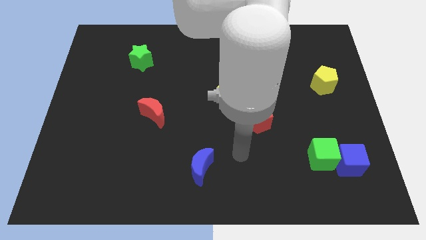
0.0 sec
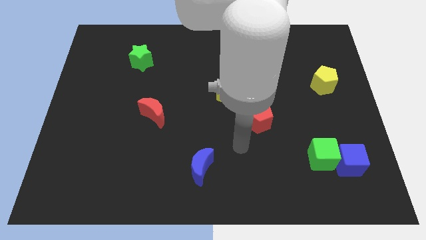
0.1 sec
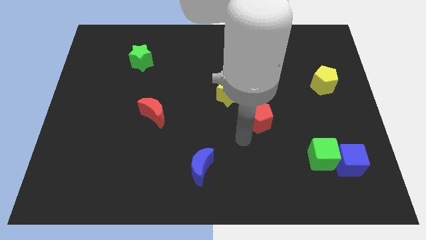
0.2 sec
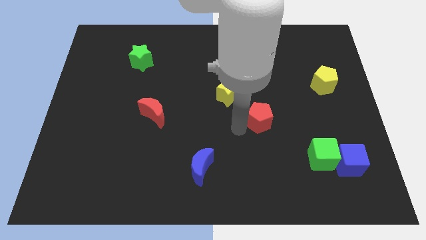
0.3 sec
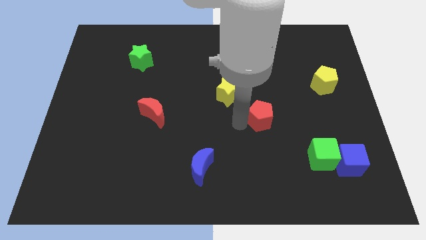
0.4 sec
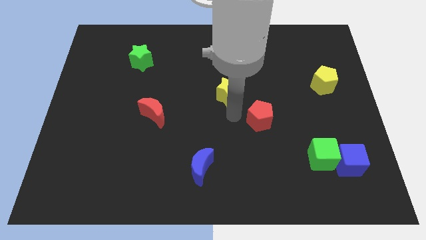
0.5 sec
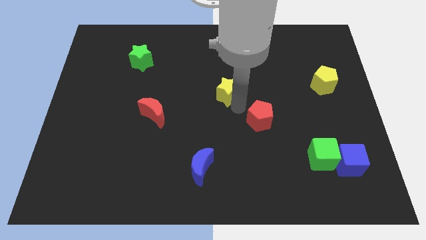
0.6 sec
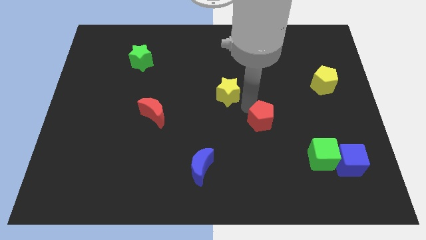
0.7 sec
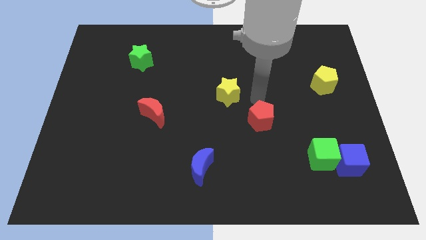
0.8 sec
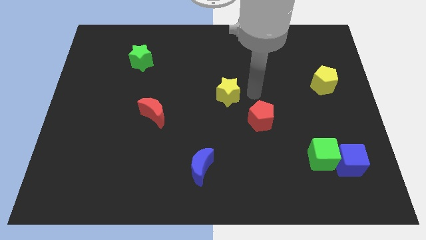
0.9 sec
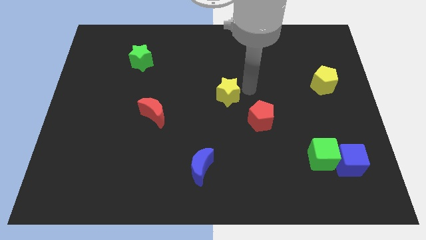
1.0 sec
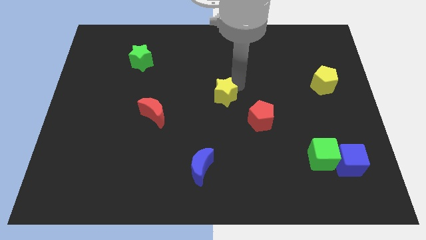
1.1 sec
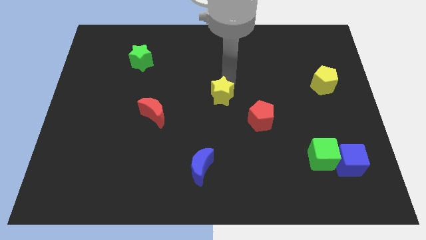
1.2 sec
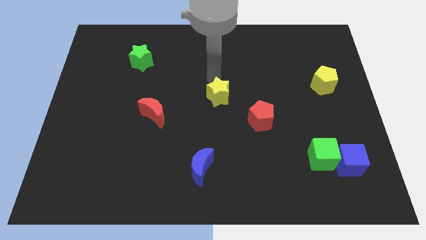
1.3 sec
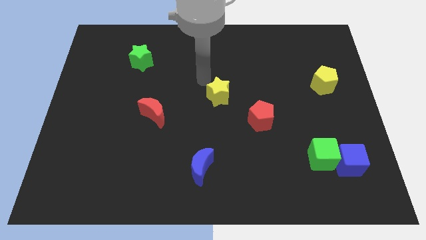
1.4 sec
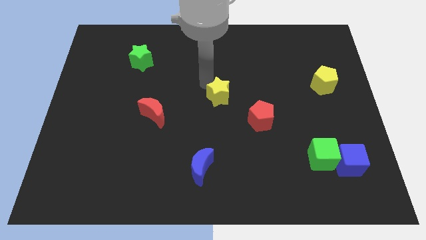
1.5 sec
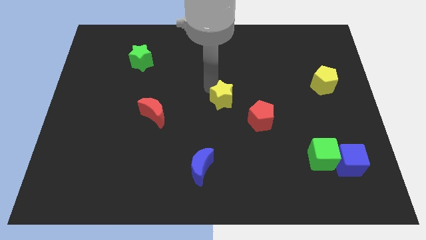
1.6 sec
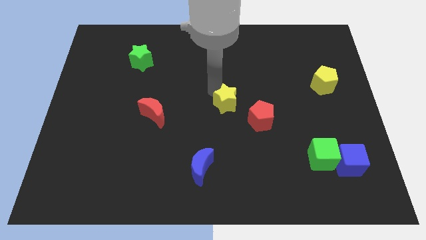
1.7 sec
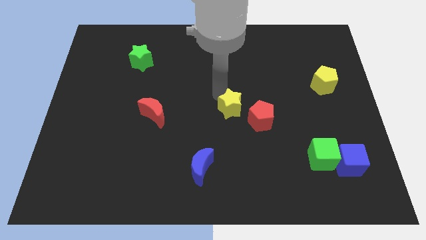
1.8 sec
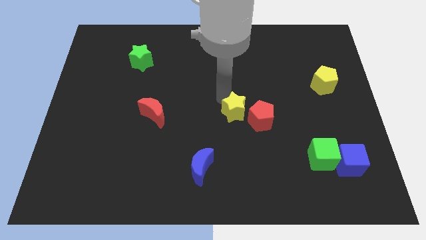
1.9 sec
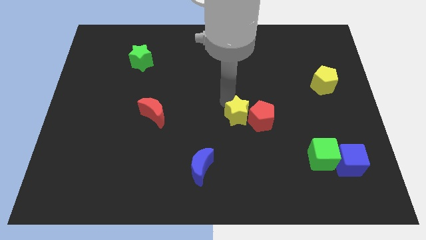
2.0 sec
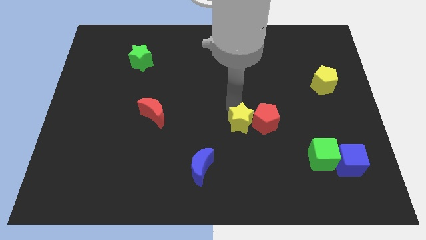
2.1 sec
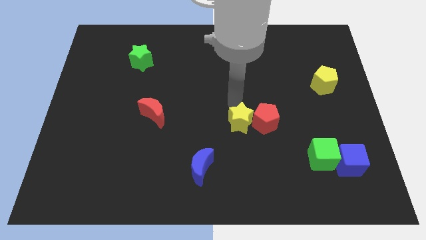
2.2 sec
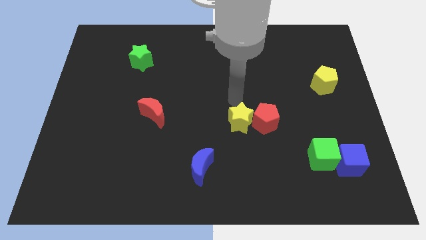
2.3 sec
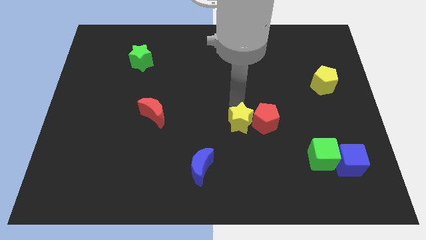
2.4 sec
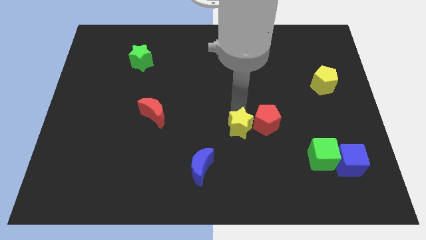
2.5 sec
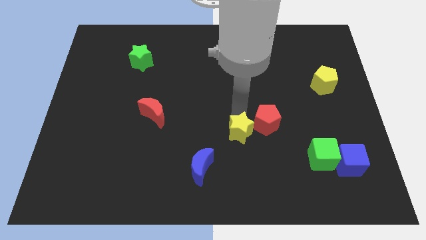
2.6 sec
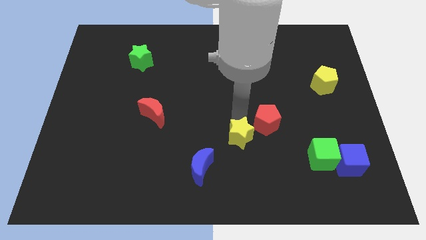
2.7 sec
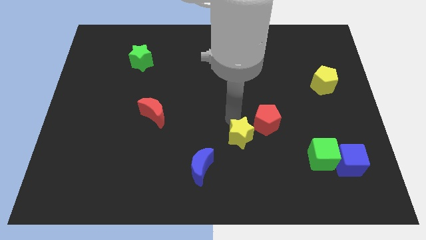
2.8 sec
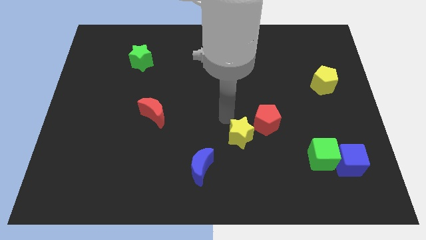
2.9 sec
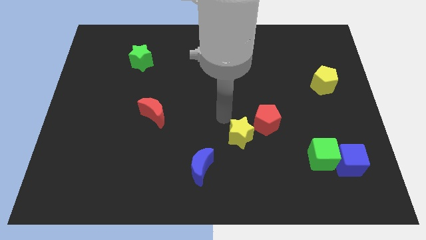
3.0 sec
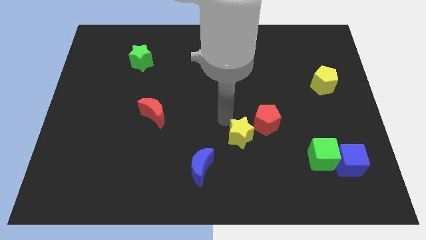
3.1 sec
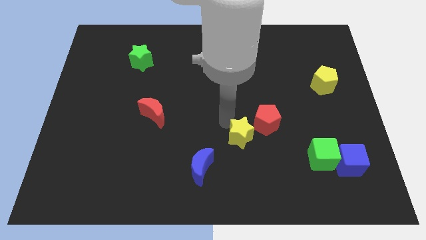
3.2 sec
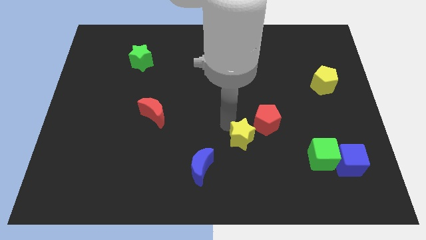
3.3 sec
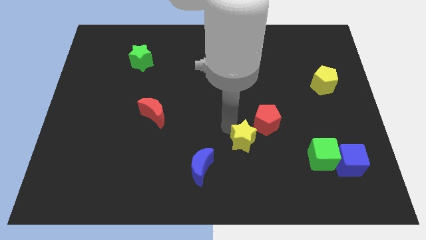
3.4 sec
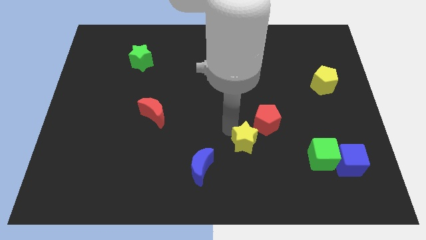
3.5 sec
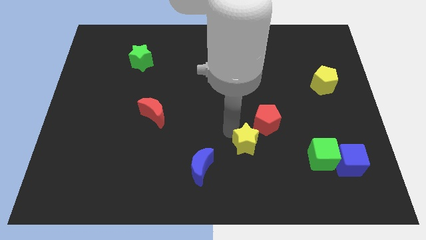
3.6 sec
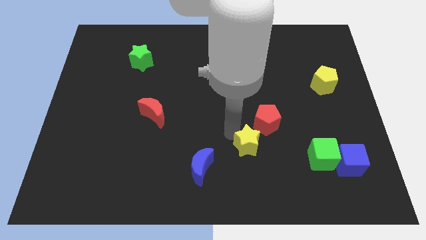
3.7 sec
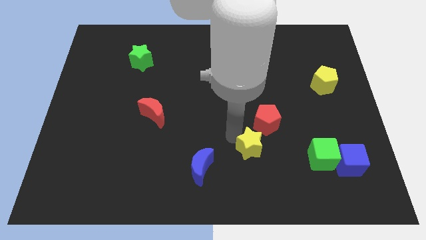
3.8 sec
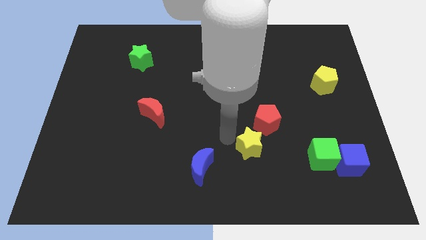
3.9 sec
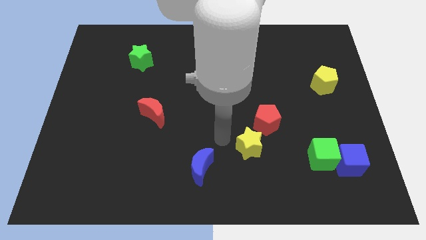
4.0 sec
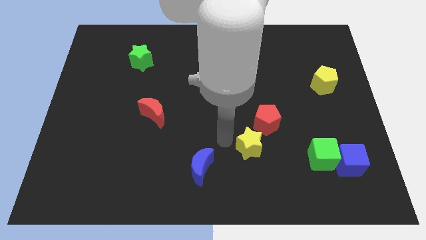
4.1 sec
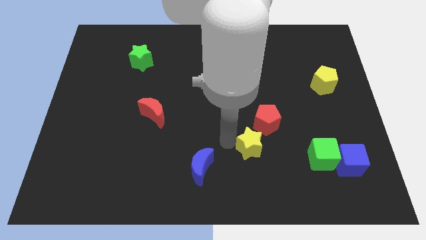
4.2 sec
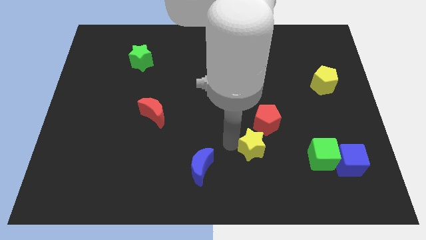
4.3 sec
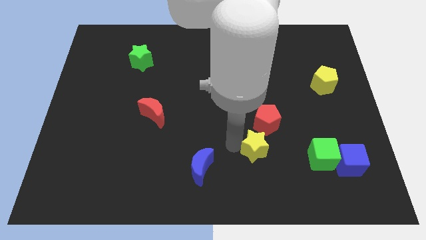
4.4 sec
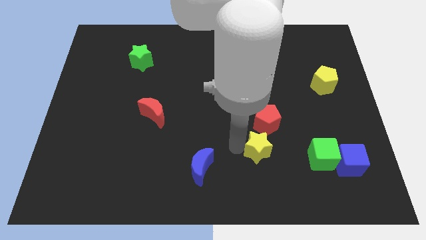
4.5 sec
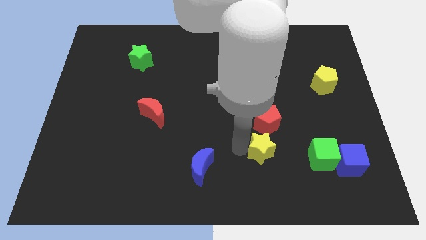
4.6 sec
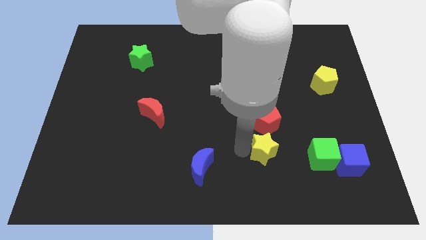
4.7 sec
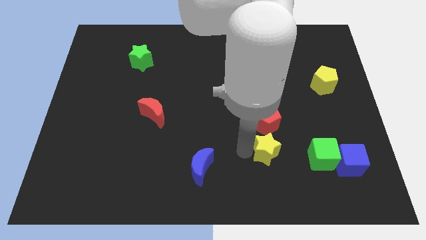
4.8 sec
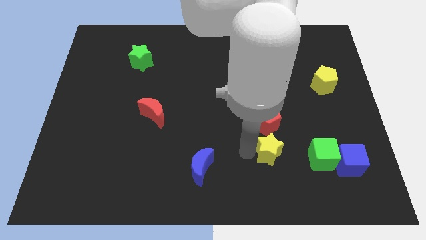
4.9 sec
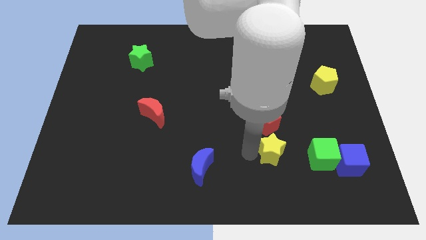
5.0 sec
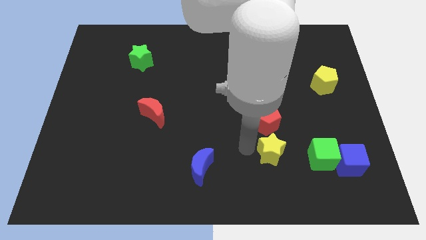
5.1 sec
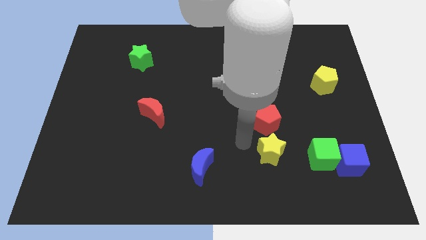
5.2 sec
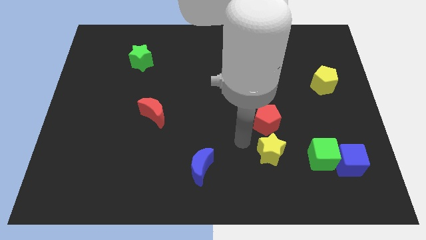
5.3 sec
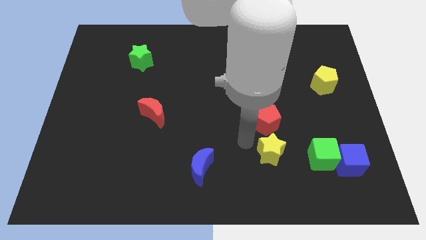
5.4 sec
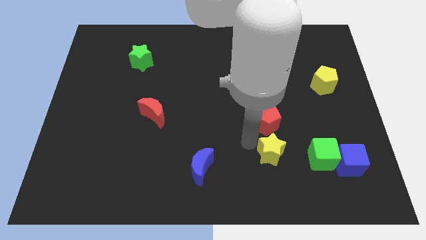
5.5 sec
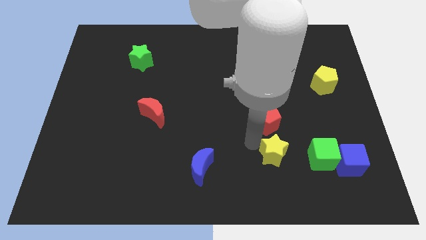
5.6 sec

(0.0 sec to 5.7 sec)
push the yellow star to the left of the blue cube

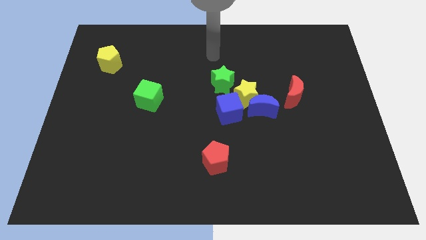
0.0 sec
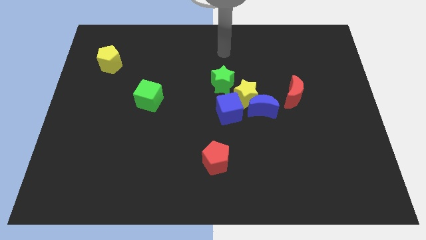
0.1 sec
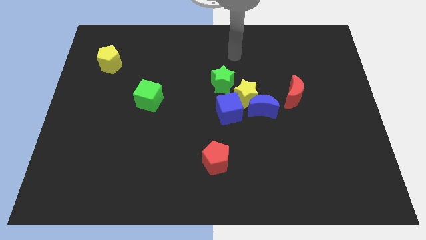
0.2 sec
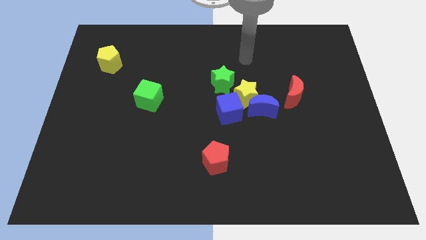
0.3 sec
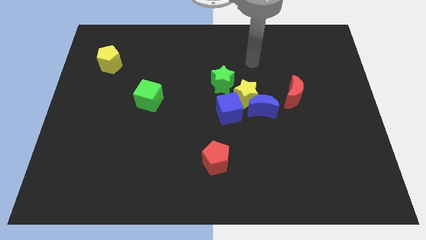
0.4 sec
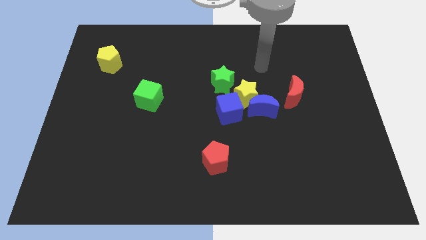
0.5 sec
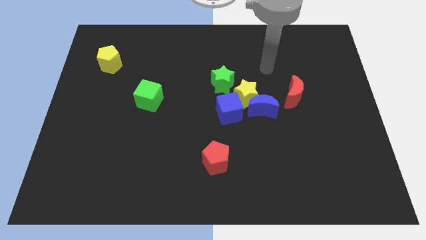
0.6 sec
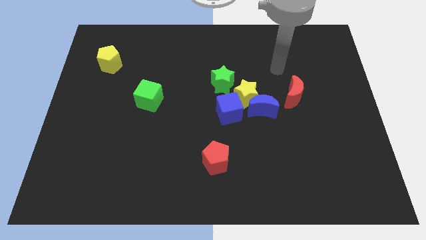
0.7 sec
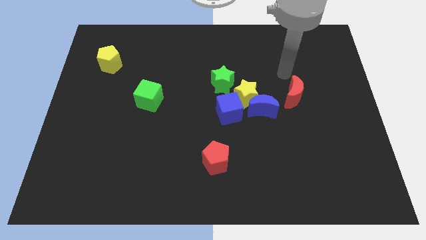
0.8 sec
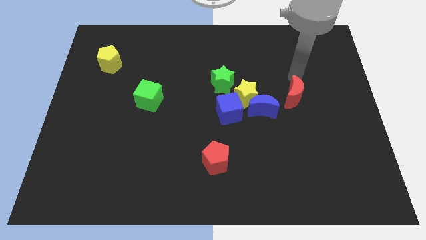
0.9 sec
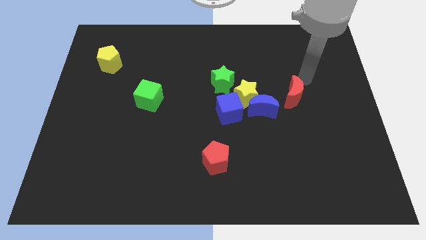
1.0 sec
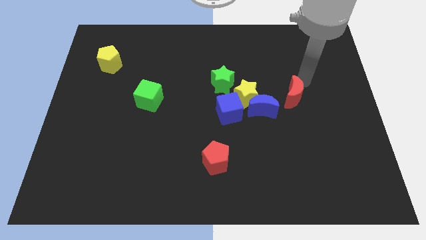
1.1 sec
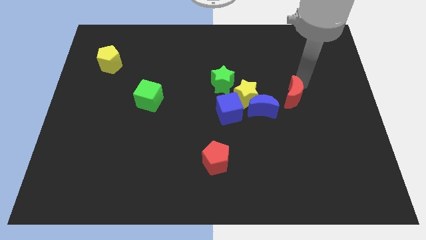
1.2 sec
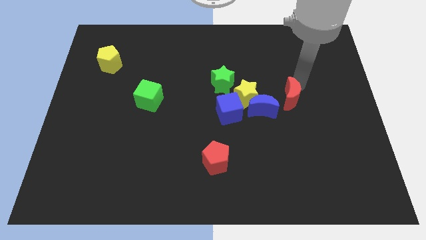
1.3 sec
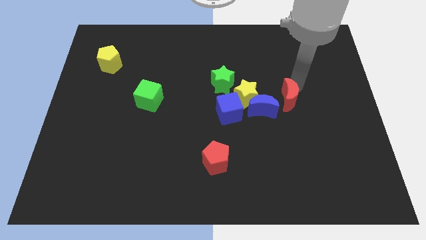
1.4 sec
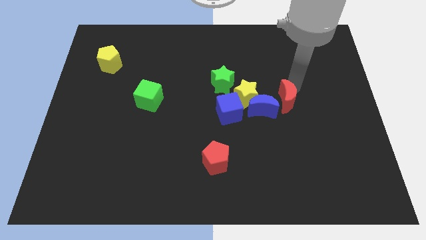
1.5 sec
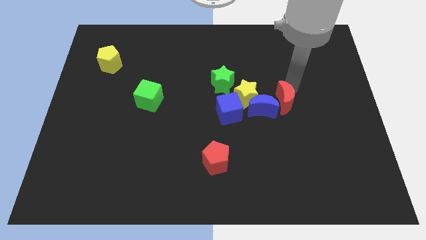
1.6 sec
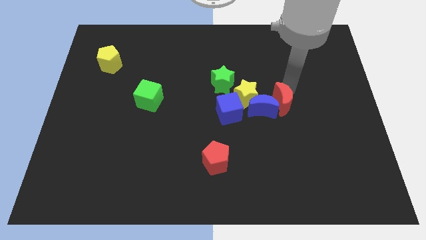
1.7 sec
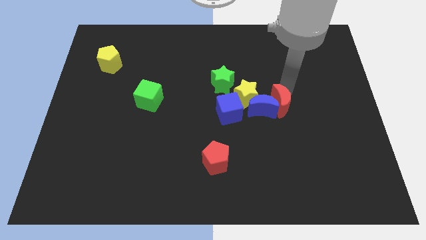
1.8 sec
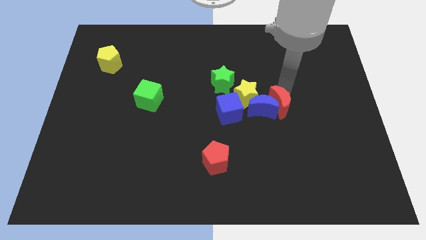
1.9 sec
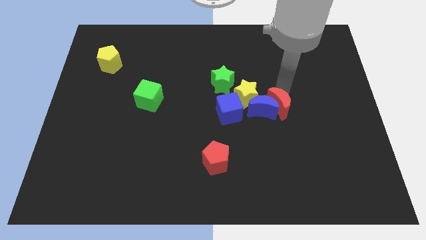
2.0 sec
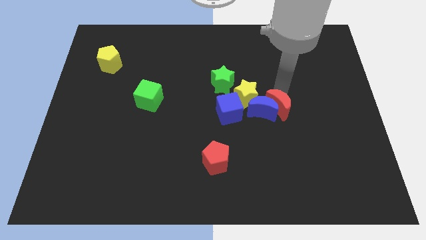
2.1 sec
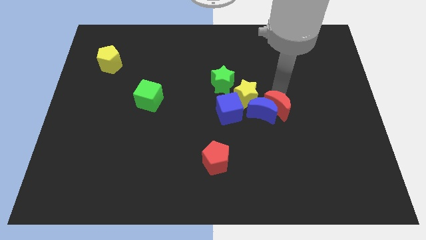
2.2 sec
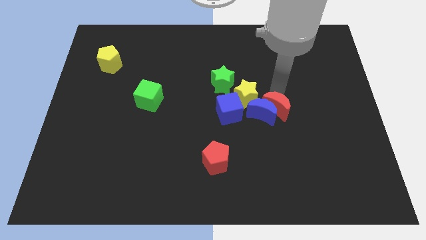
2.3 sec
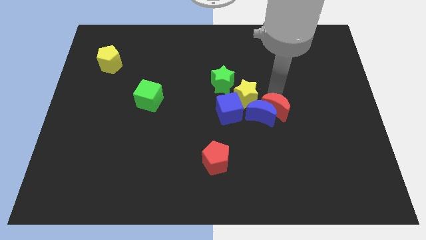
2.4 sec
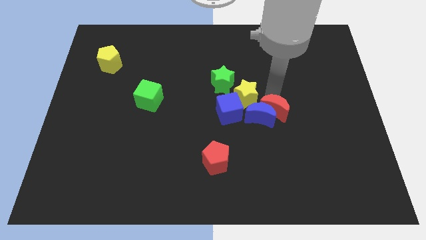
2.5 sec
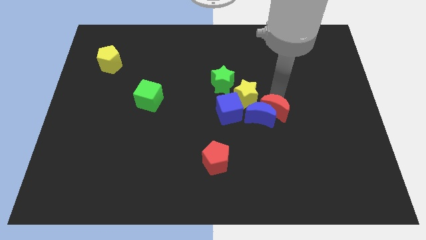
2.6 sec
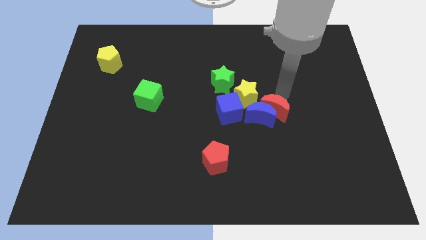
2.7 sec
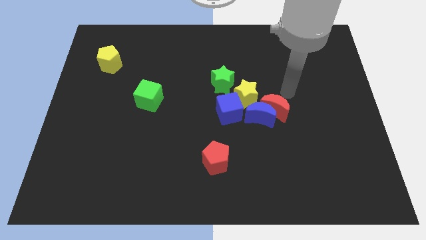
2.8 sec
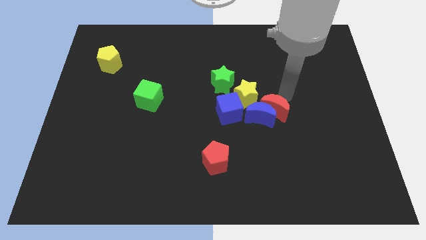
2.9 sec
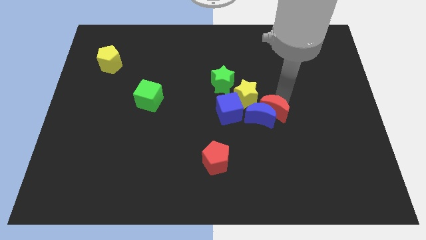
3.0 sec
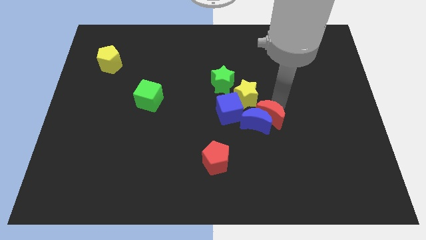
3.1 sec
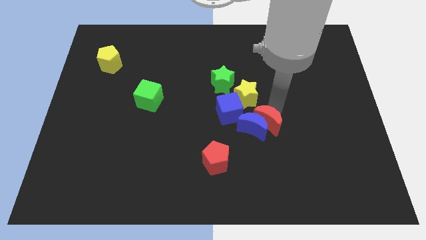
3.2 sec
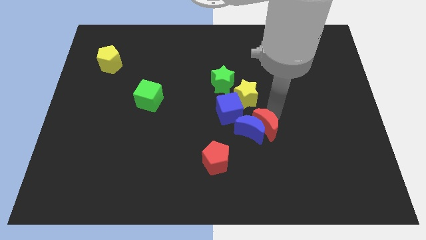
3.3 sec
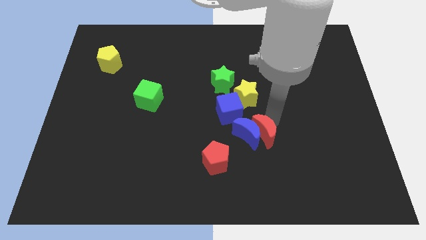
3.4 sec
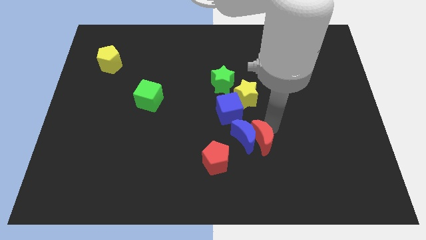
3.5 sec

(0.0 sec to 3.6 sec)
slide the red moon to the top right of the red pentagon
